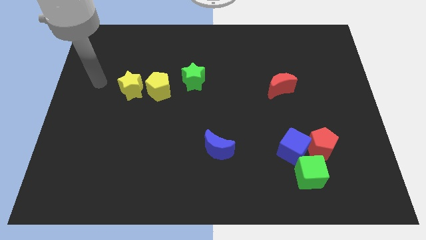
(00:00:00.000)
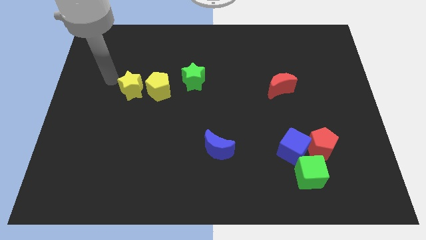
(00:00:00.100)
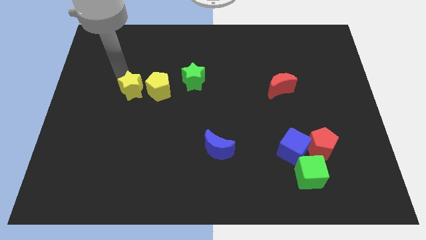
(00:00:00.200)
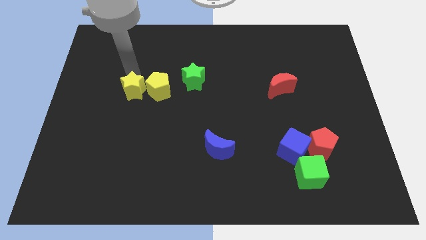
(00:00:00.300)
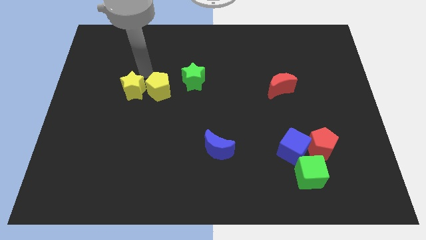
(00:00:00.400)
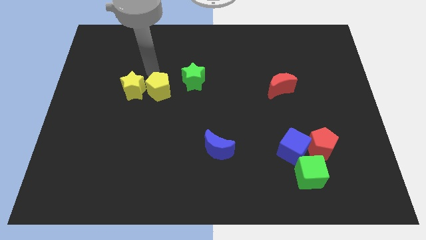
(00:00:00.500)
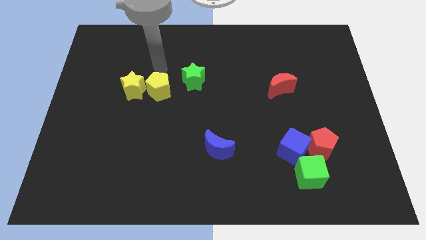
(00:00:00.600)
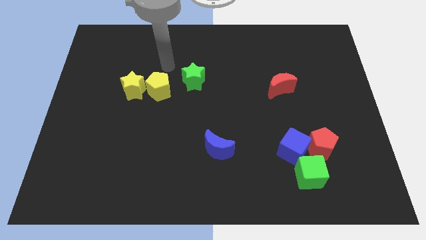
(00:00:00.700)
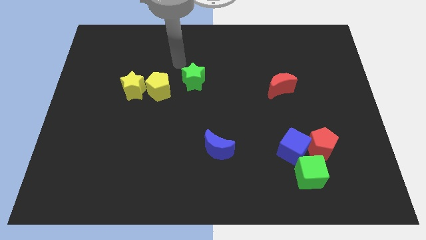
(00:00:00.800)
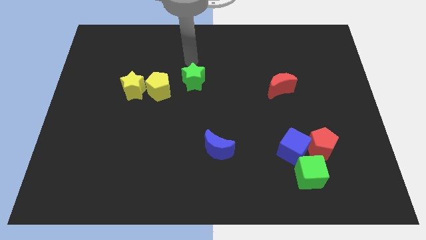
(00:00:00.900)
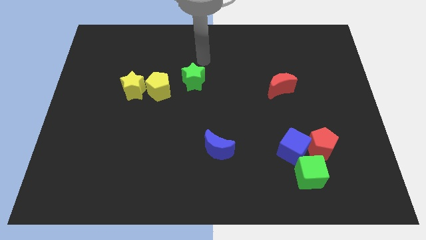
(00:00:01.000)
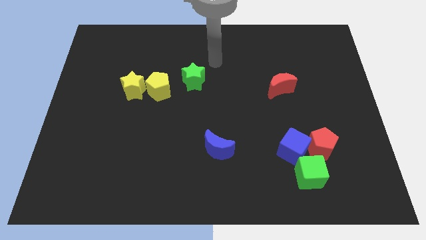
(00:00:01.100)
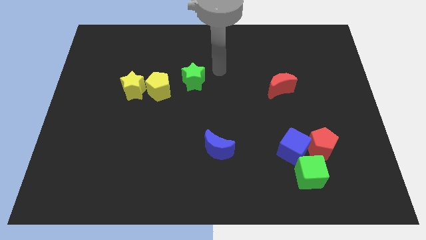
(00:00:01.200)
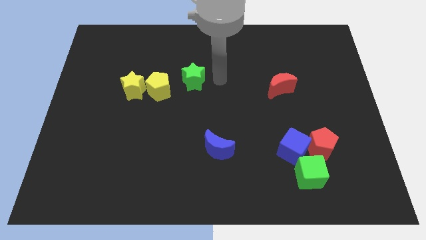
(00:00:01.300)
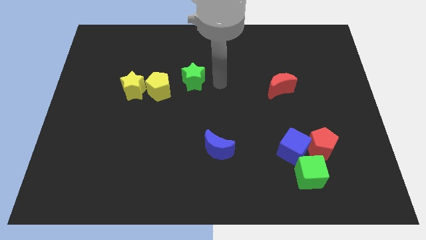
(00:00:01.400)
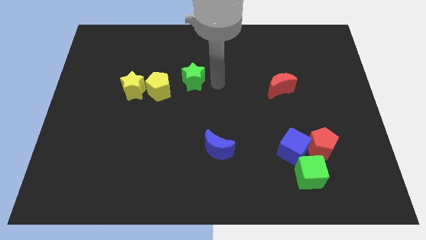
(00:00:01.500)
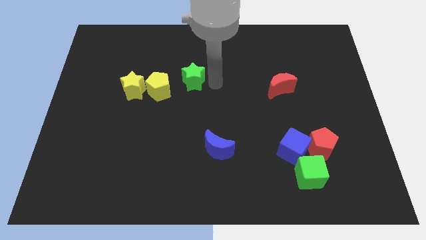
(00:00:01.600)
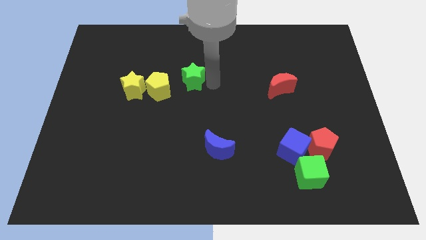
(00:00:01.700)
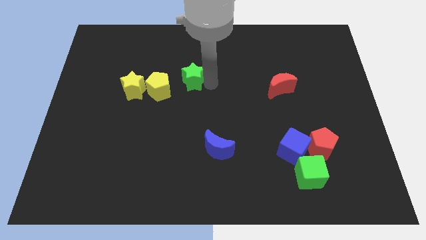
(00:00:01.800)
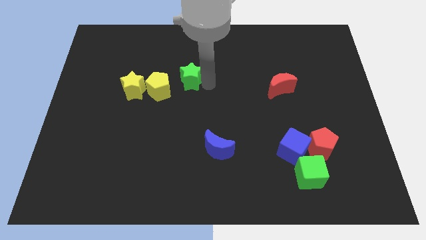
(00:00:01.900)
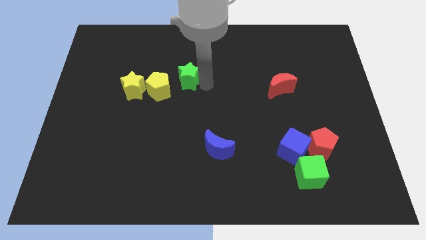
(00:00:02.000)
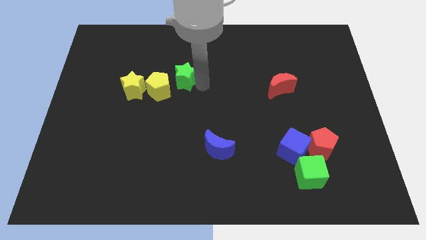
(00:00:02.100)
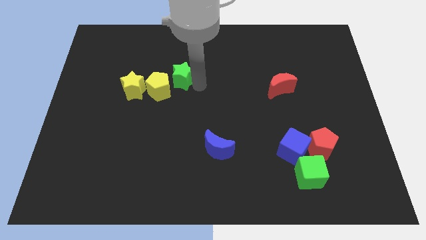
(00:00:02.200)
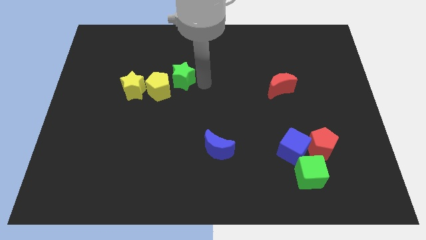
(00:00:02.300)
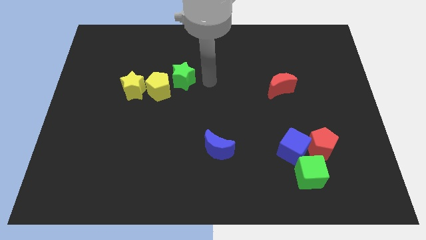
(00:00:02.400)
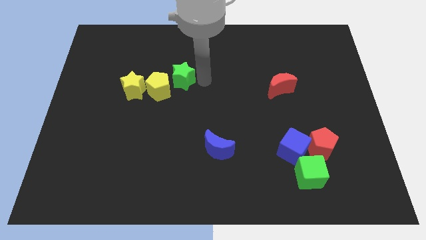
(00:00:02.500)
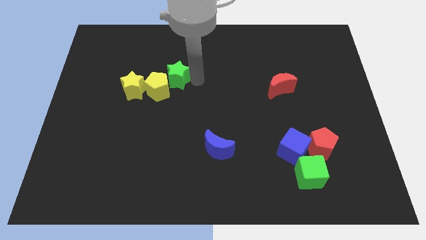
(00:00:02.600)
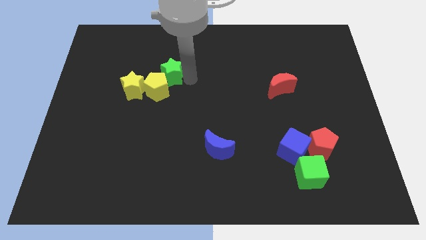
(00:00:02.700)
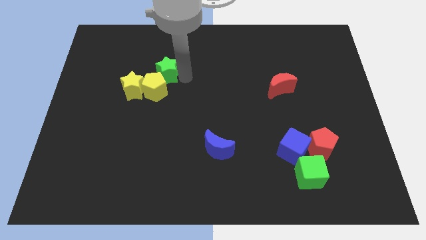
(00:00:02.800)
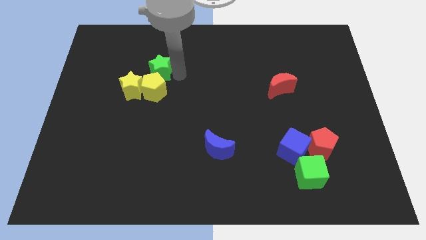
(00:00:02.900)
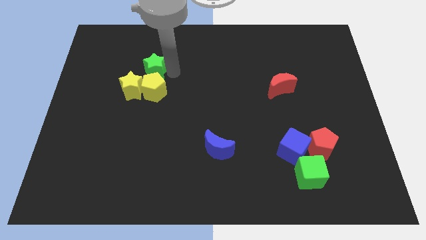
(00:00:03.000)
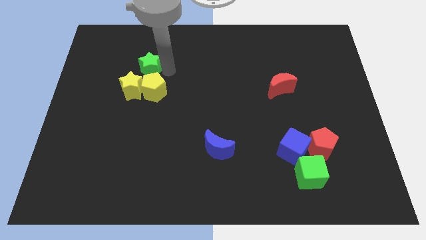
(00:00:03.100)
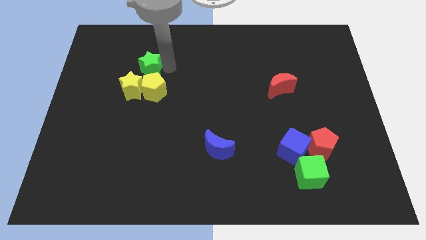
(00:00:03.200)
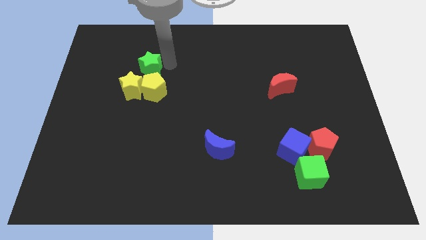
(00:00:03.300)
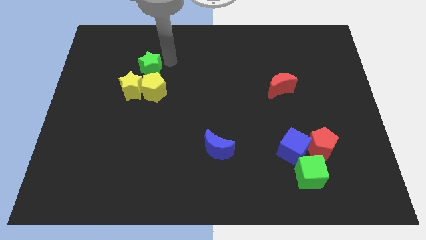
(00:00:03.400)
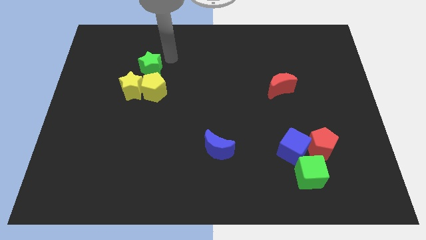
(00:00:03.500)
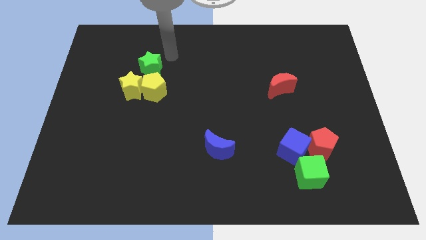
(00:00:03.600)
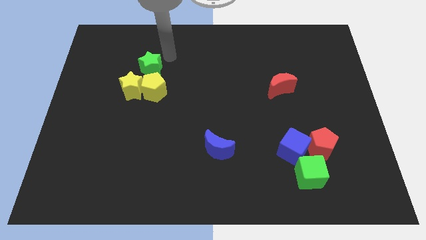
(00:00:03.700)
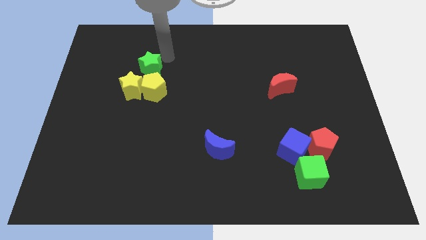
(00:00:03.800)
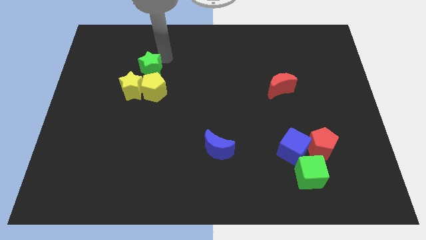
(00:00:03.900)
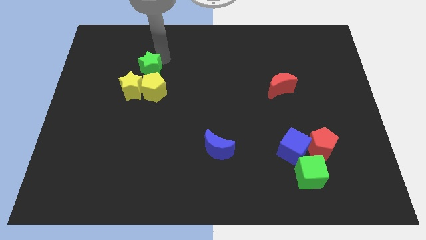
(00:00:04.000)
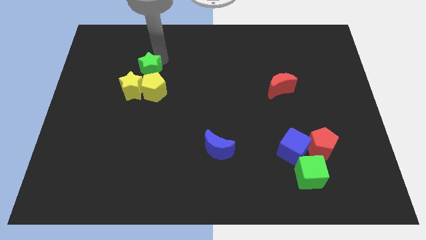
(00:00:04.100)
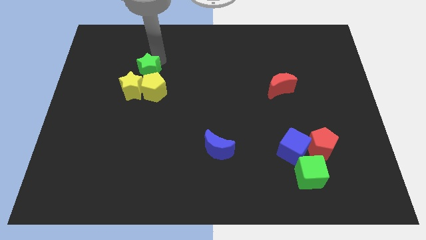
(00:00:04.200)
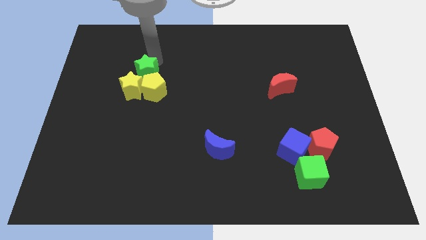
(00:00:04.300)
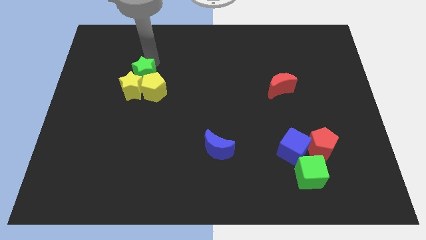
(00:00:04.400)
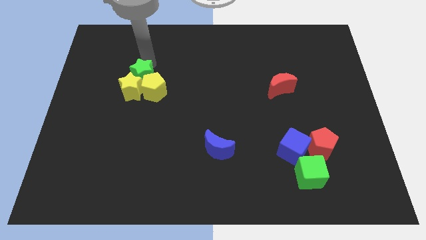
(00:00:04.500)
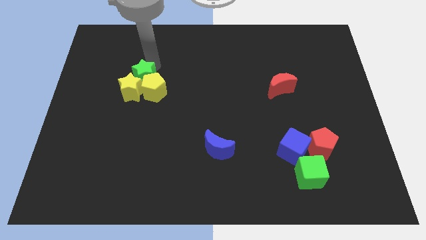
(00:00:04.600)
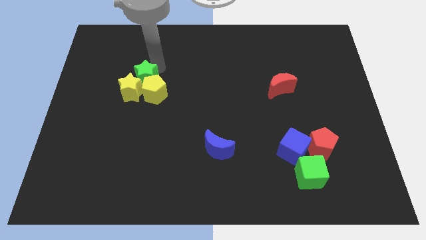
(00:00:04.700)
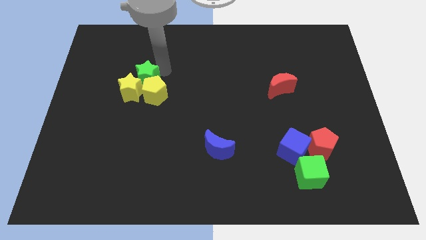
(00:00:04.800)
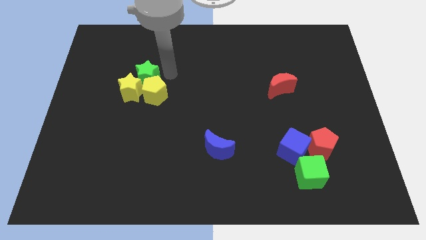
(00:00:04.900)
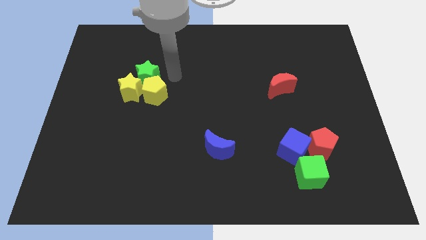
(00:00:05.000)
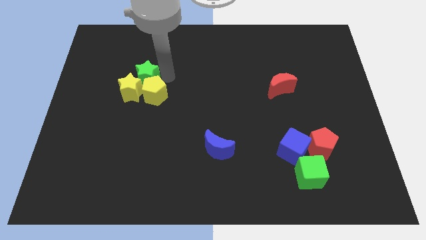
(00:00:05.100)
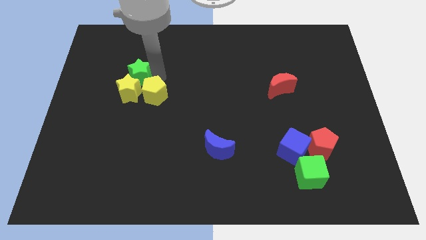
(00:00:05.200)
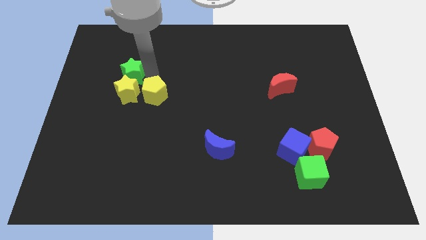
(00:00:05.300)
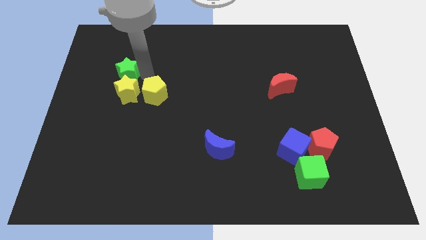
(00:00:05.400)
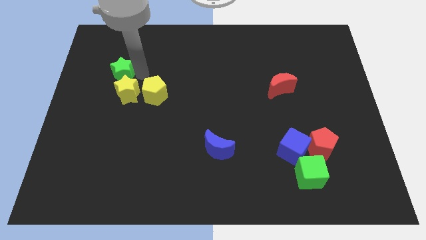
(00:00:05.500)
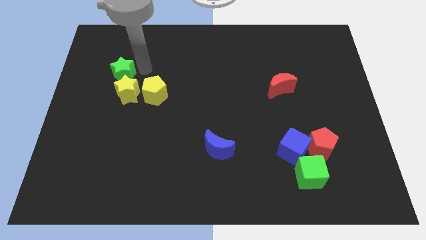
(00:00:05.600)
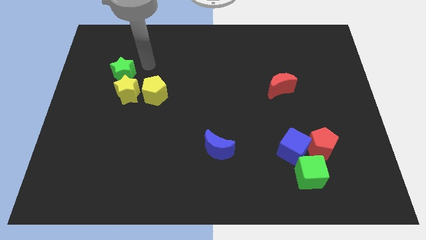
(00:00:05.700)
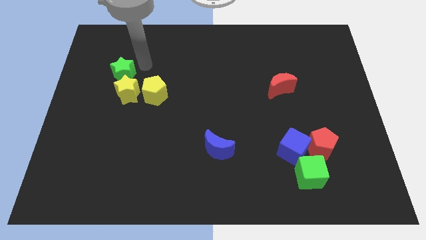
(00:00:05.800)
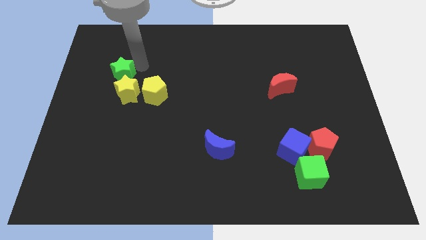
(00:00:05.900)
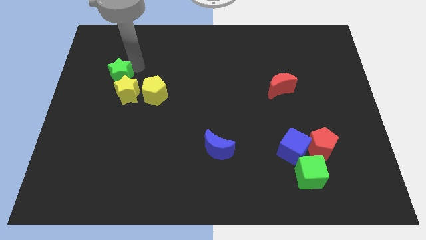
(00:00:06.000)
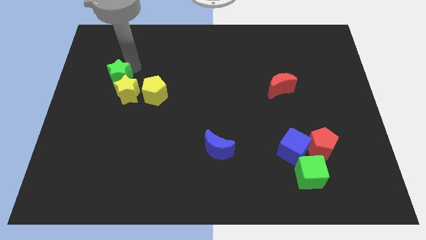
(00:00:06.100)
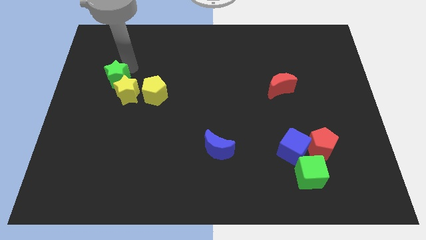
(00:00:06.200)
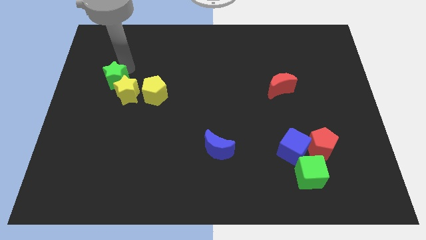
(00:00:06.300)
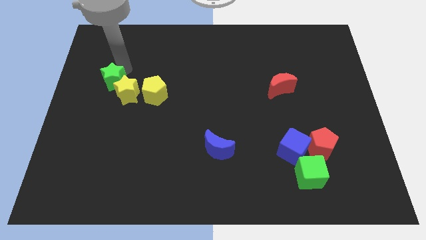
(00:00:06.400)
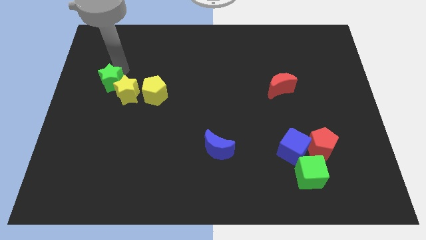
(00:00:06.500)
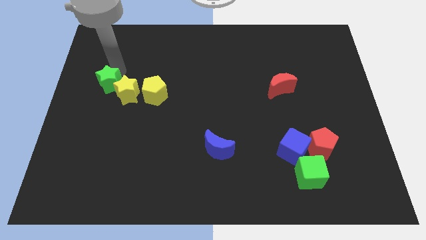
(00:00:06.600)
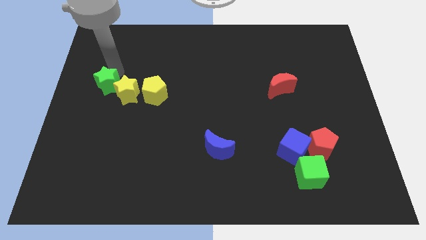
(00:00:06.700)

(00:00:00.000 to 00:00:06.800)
slide the green star to the left side

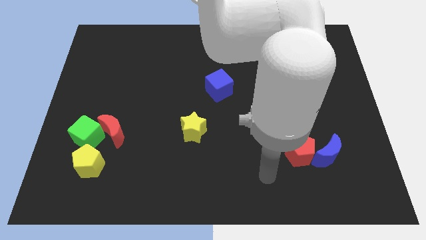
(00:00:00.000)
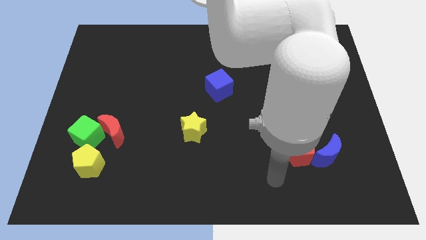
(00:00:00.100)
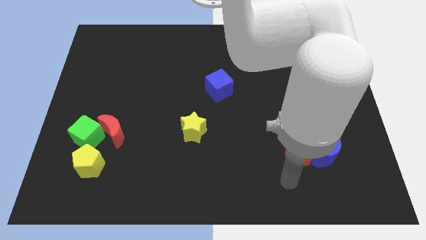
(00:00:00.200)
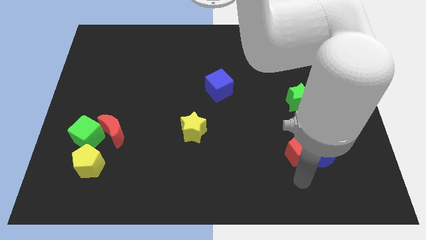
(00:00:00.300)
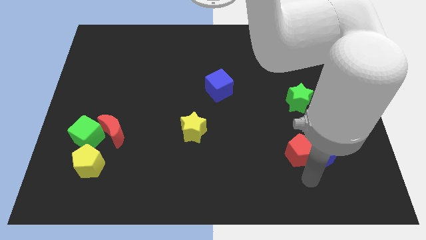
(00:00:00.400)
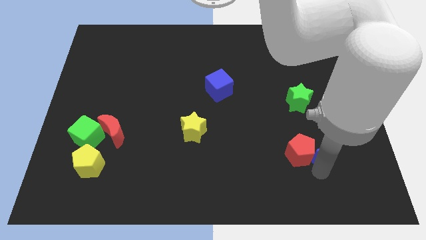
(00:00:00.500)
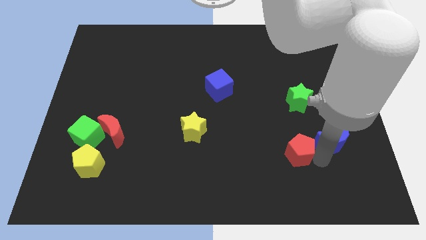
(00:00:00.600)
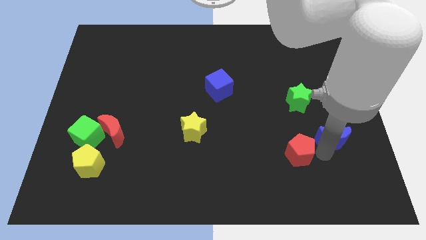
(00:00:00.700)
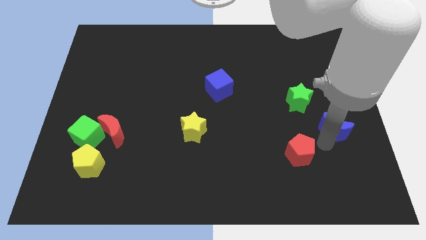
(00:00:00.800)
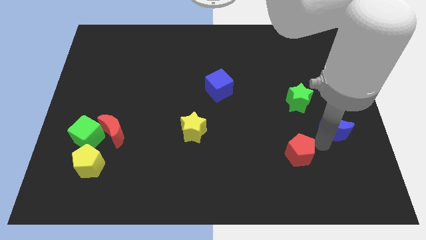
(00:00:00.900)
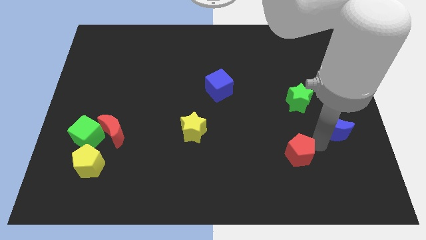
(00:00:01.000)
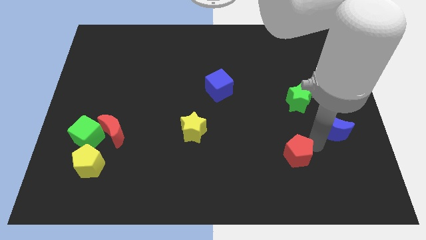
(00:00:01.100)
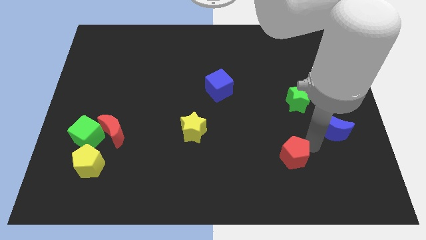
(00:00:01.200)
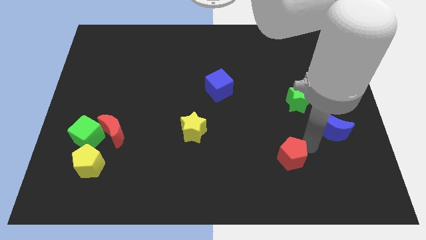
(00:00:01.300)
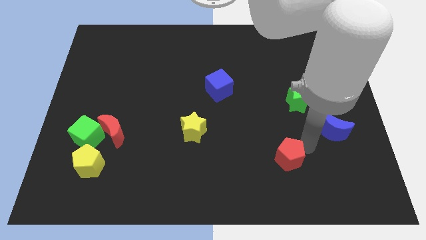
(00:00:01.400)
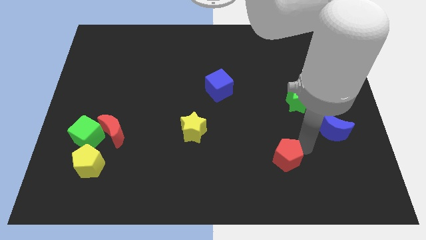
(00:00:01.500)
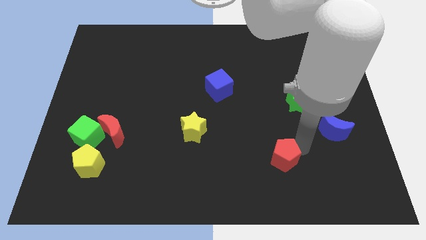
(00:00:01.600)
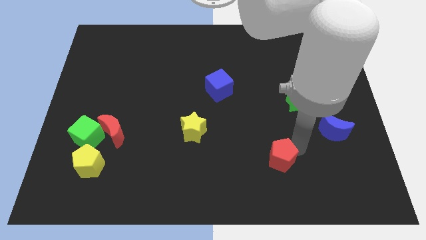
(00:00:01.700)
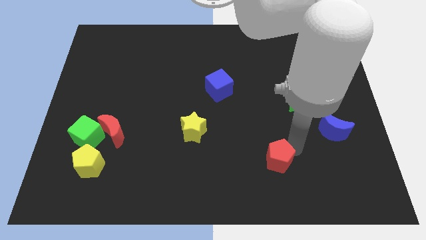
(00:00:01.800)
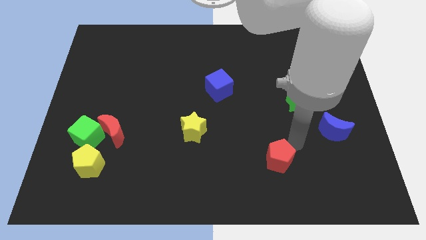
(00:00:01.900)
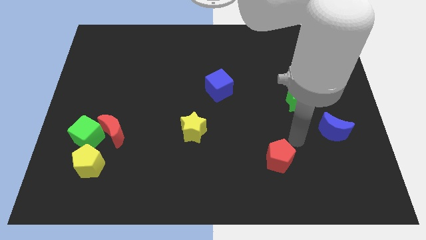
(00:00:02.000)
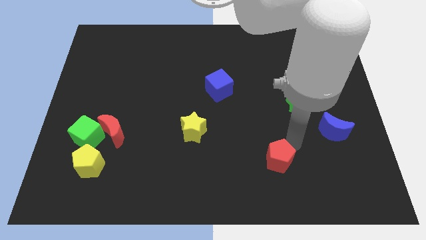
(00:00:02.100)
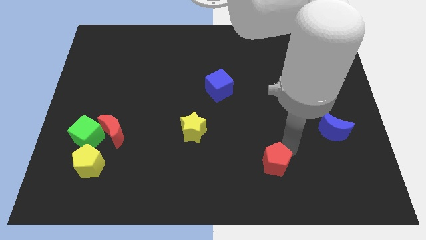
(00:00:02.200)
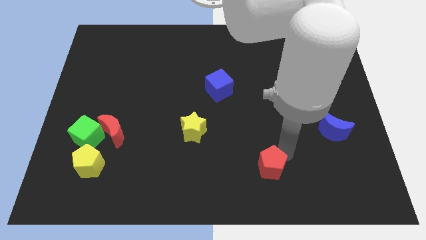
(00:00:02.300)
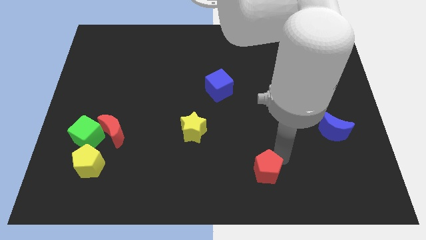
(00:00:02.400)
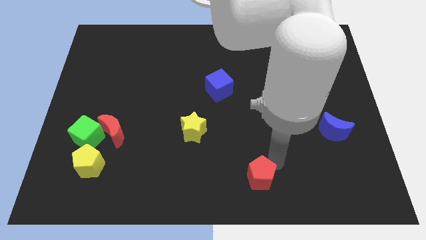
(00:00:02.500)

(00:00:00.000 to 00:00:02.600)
push the red pentagon to the bottom side
